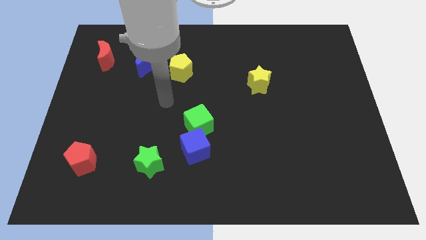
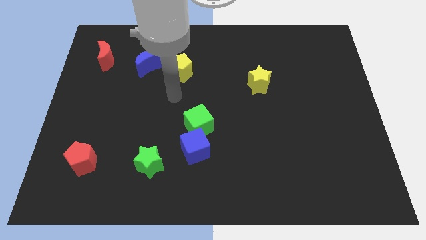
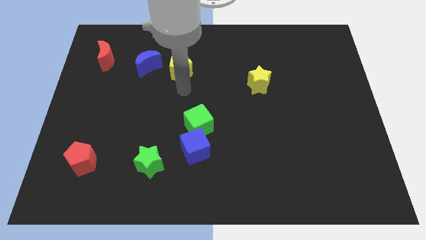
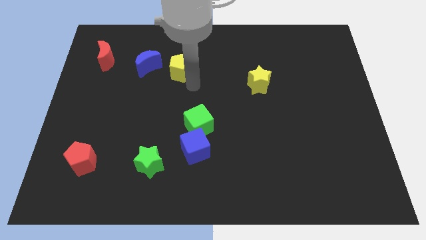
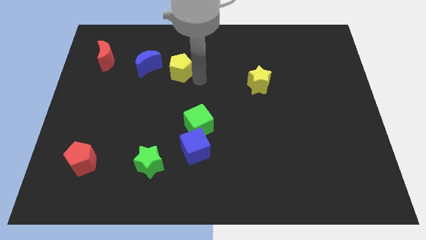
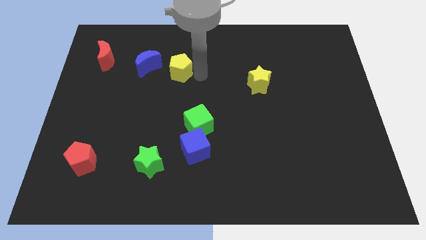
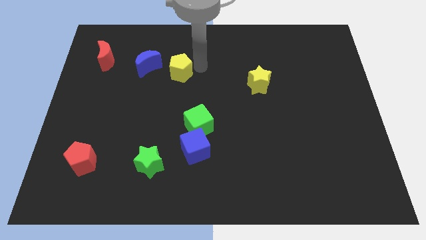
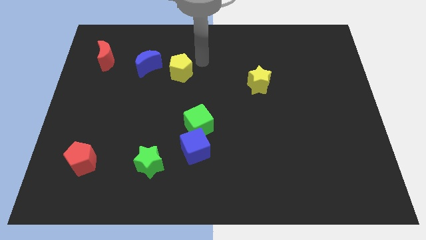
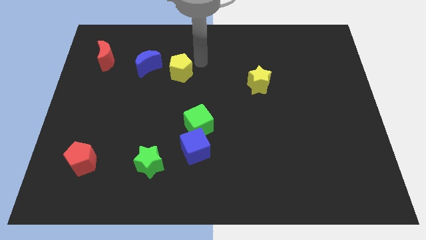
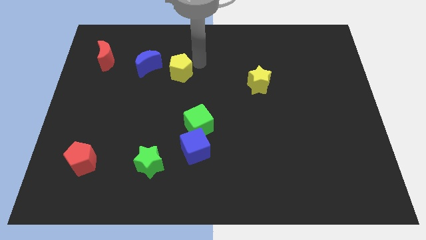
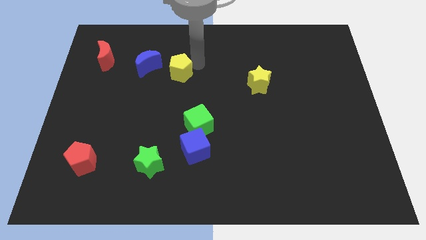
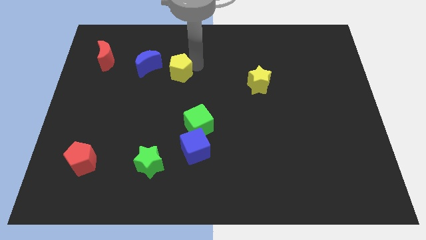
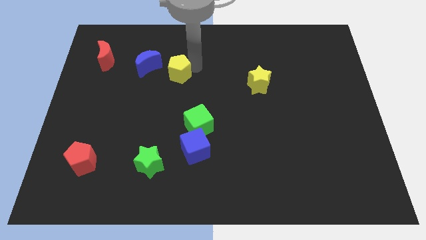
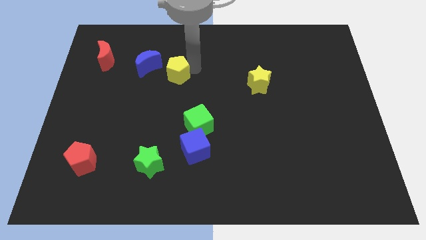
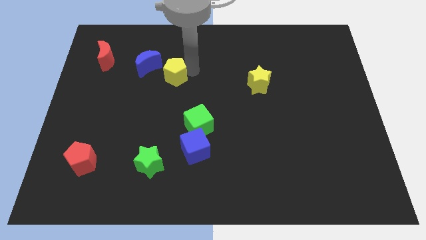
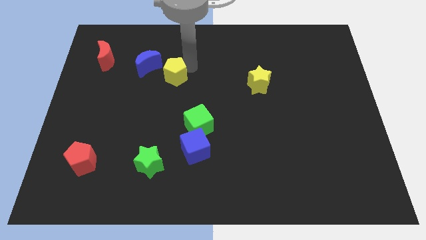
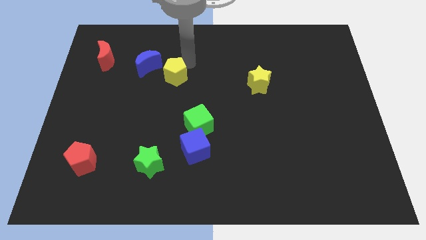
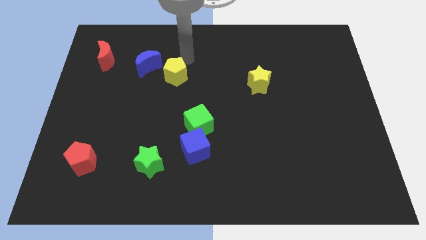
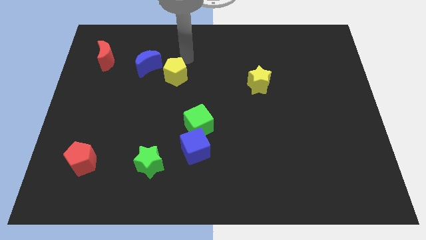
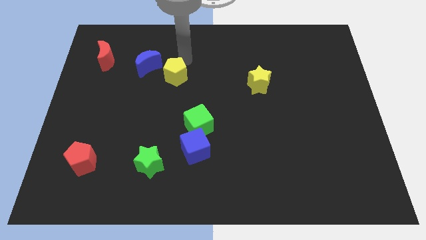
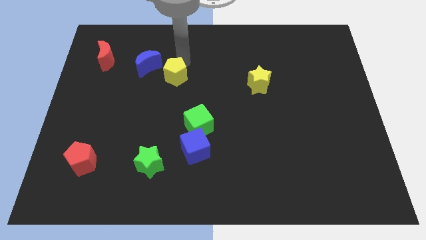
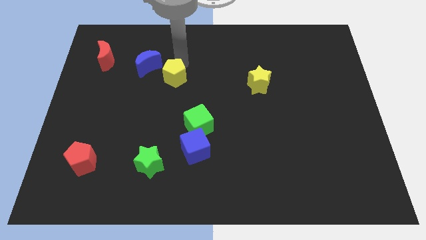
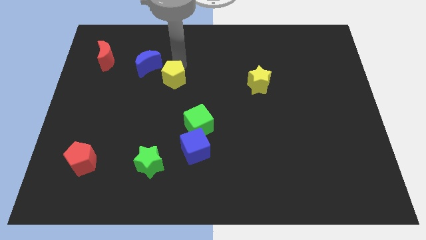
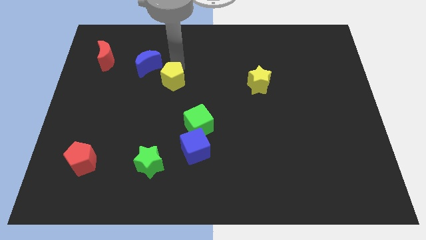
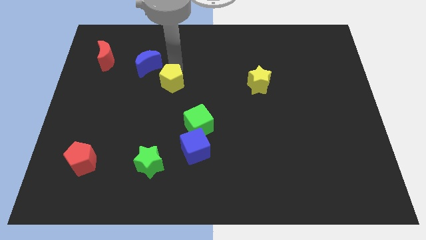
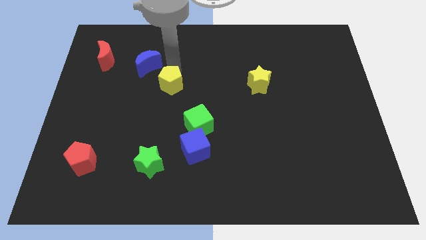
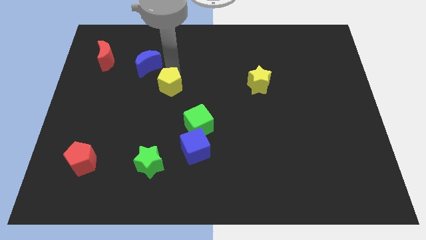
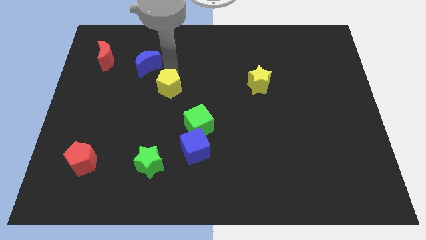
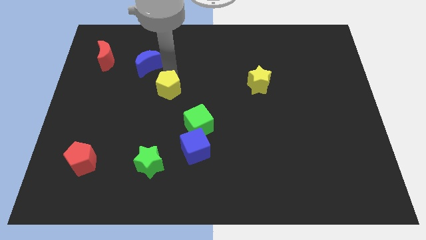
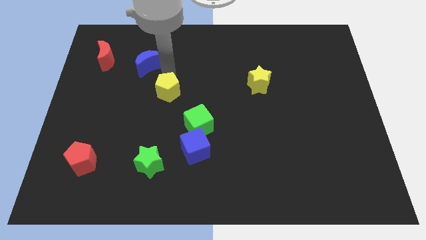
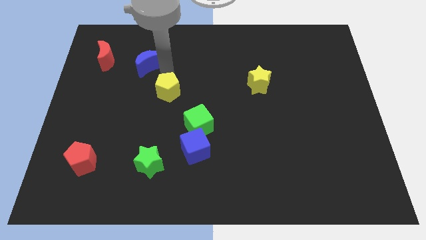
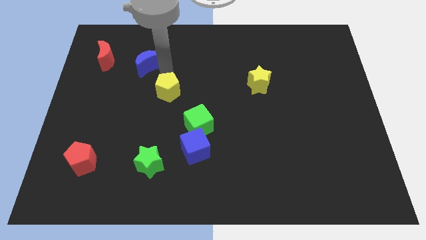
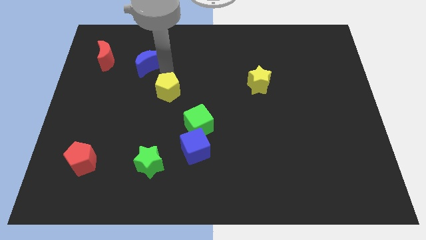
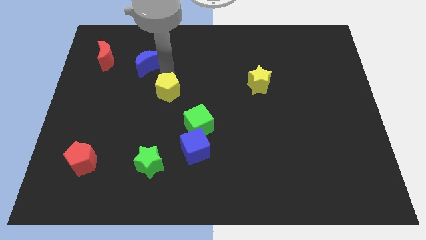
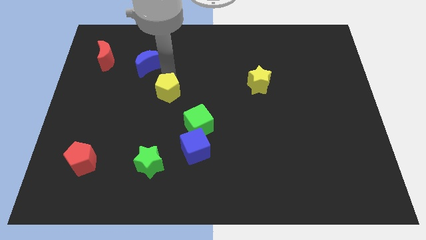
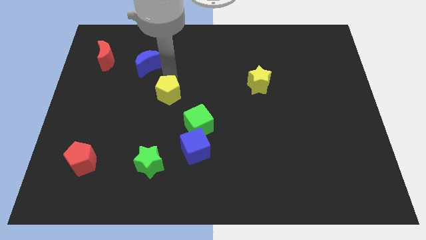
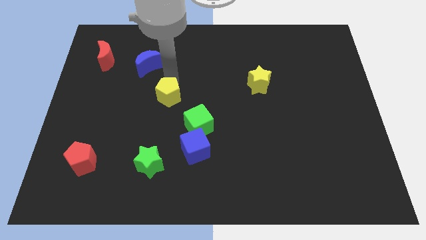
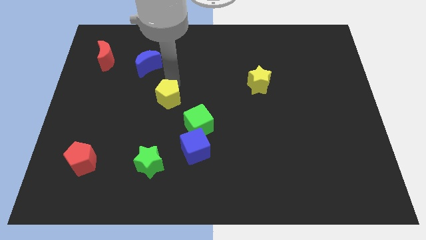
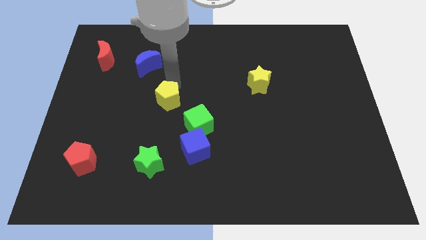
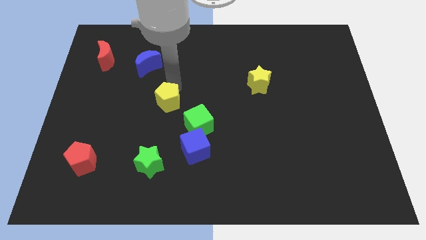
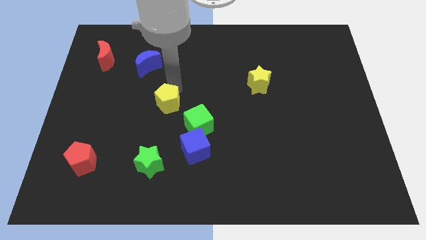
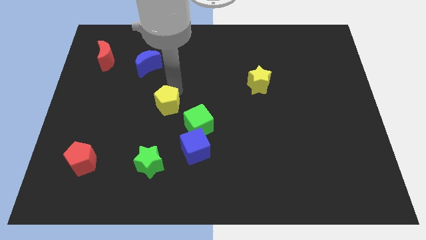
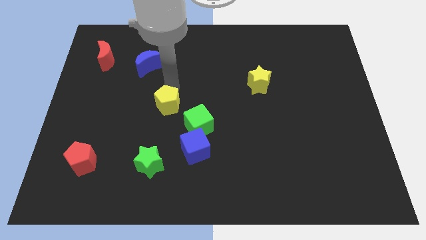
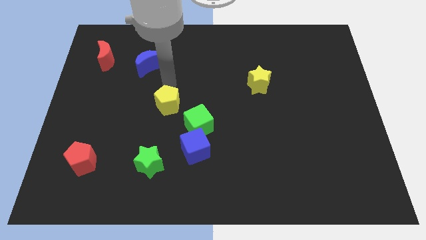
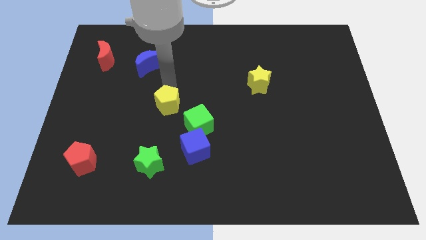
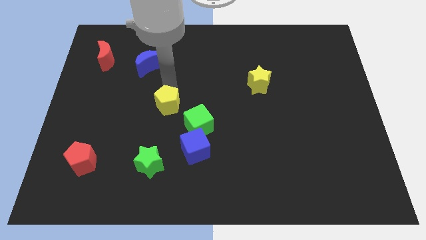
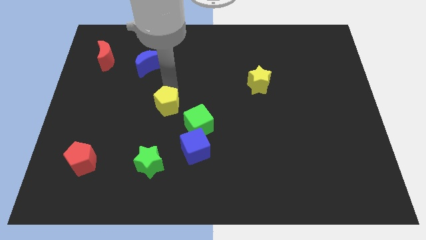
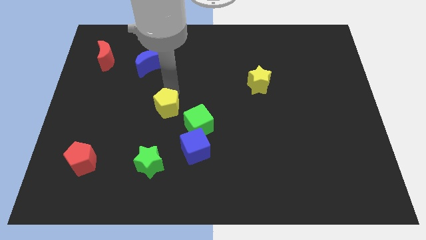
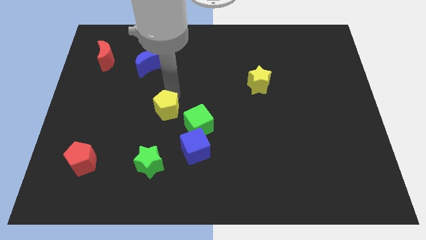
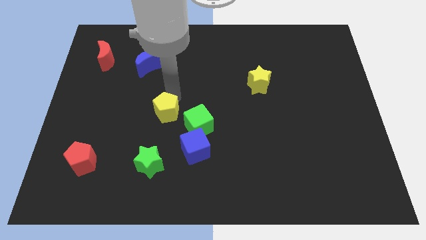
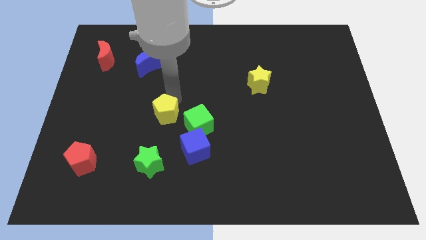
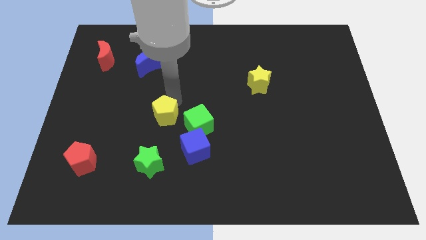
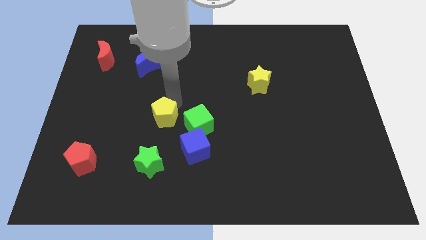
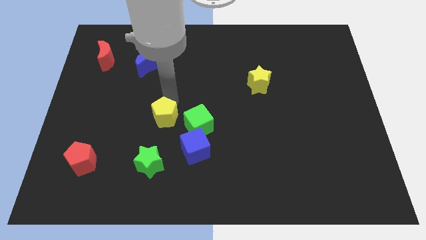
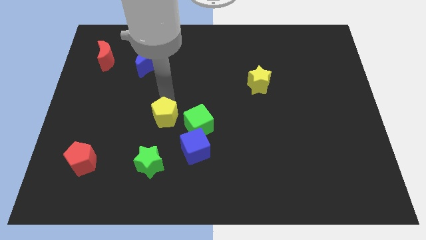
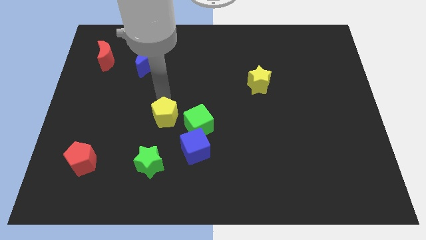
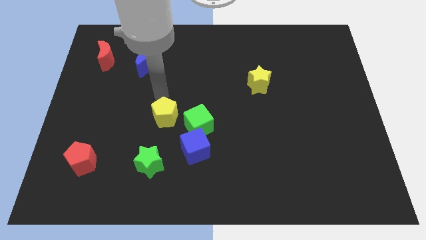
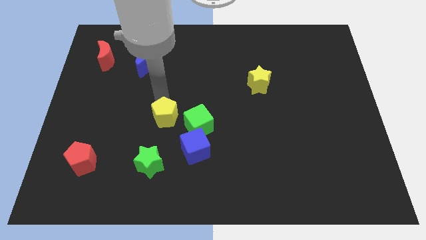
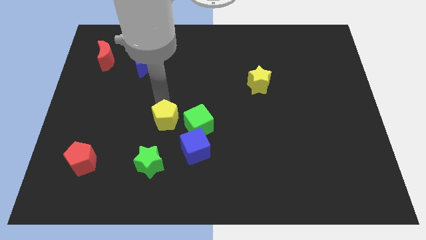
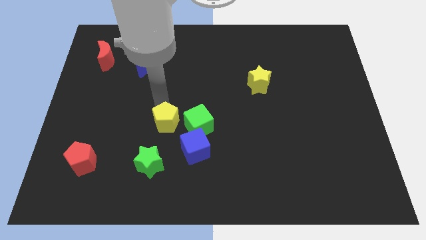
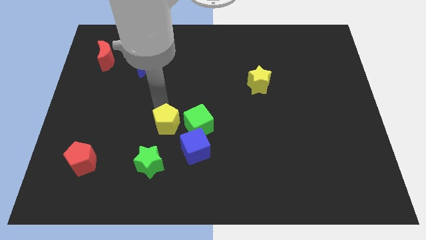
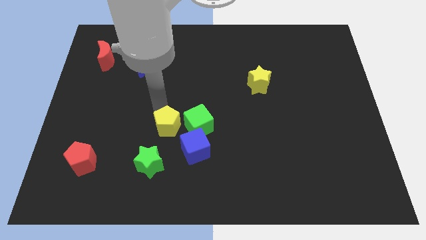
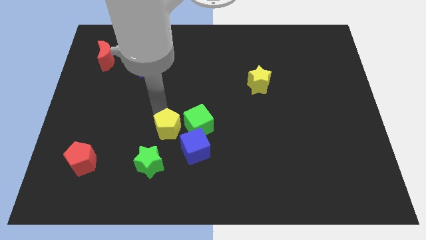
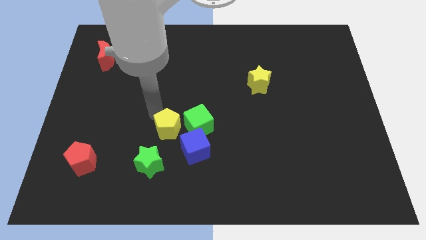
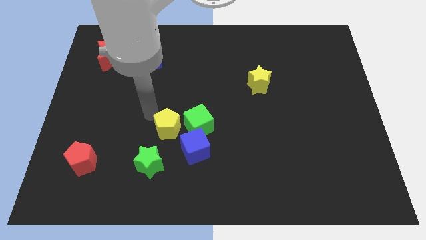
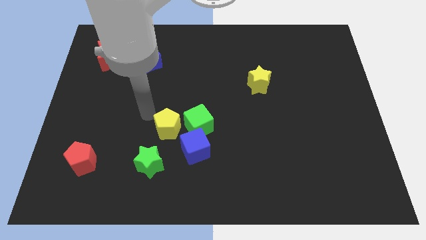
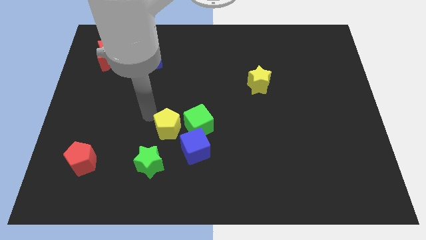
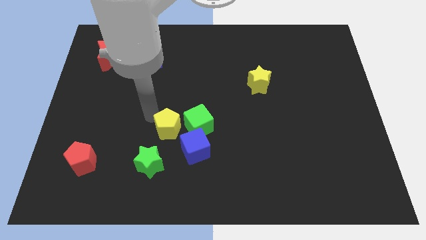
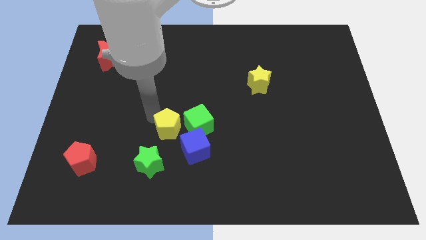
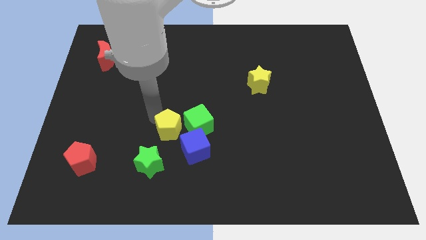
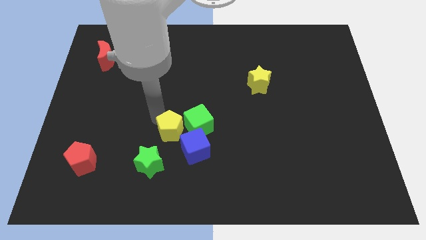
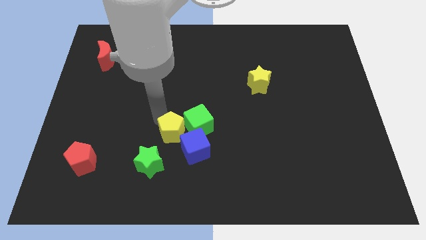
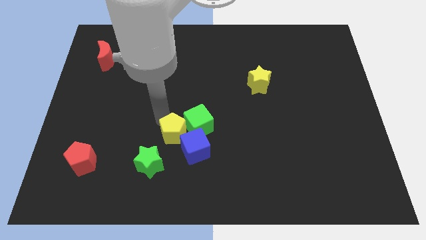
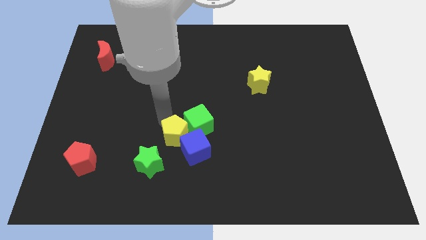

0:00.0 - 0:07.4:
slide the yellow pentagon next to the blue cube

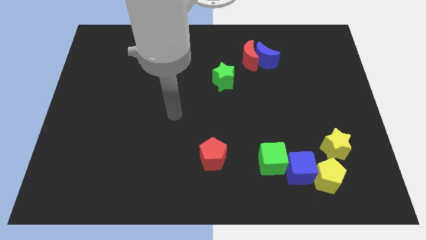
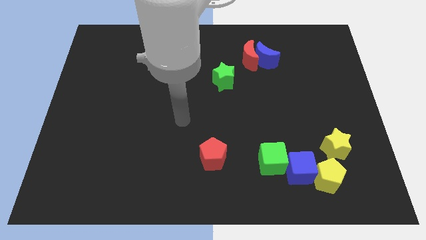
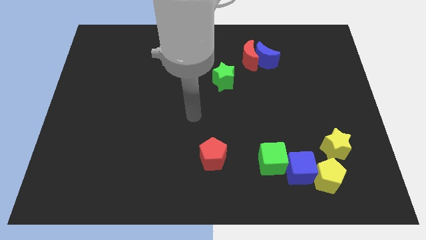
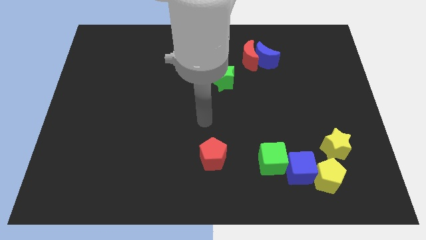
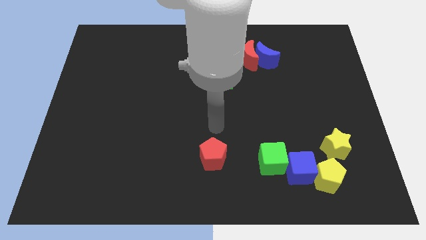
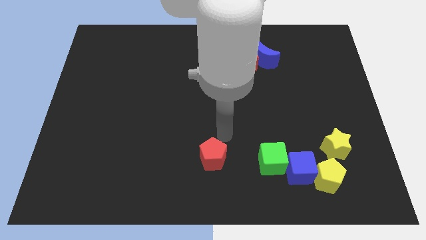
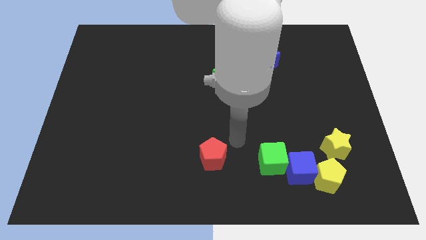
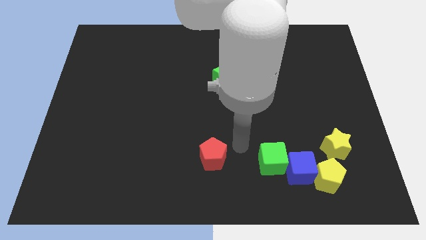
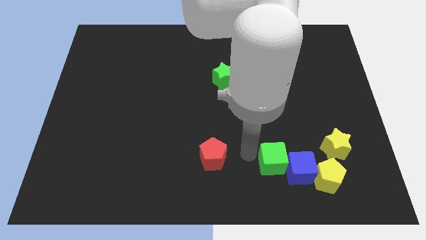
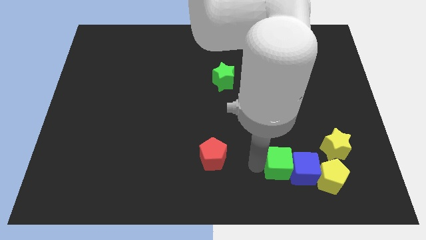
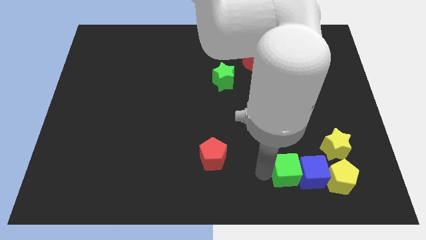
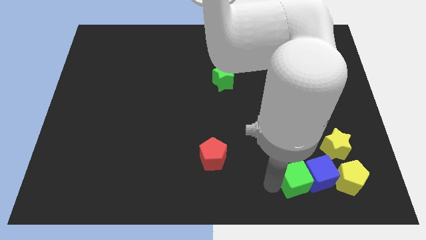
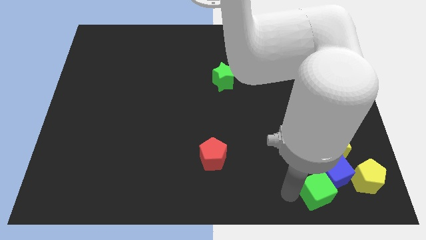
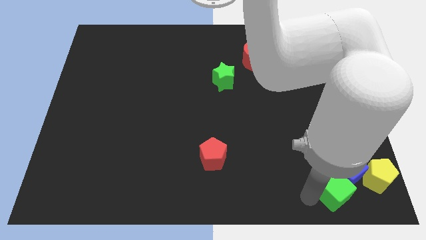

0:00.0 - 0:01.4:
put the blue cube towards the yellow star
